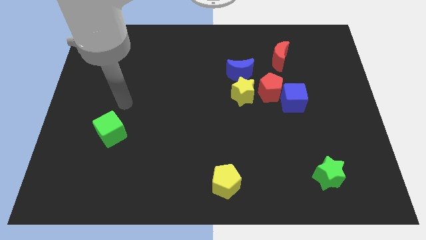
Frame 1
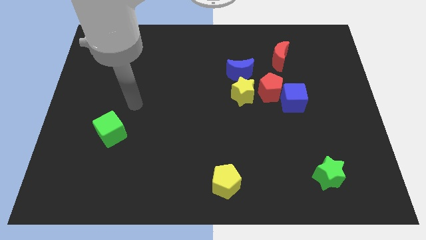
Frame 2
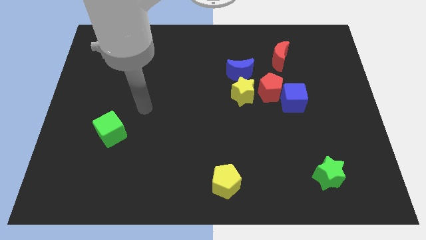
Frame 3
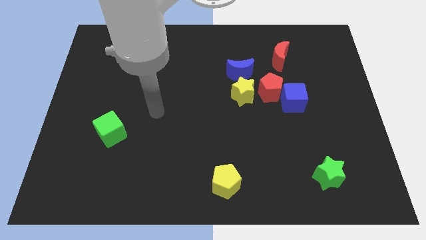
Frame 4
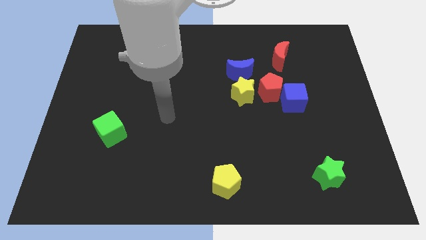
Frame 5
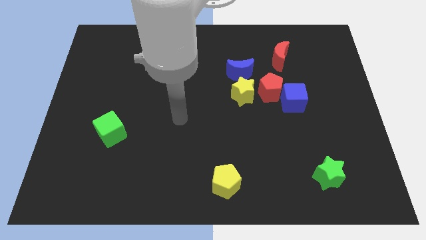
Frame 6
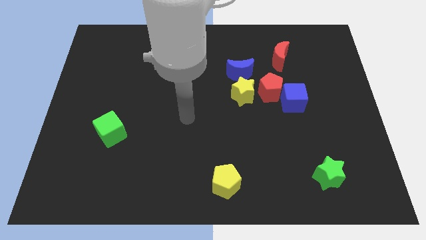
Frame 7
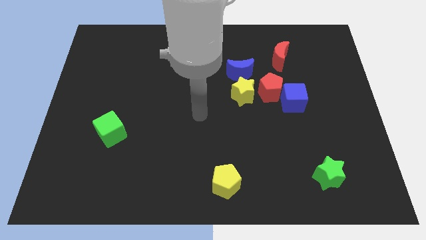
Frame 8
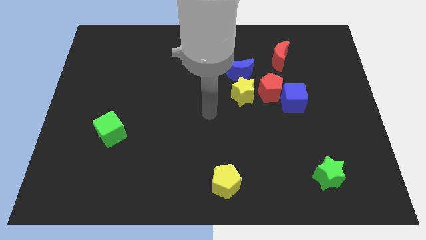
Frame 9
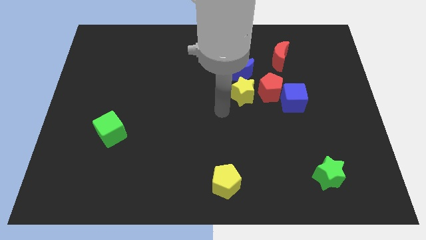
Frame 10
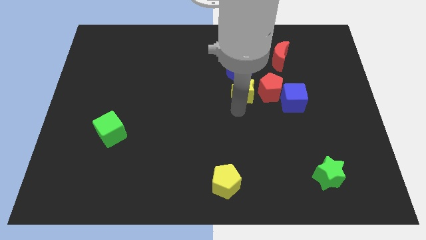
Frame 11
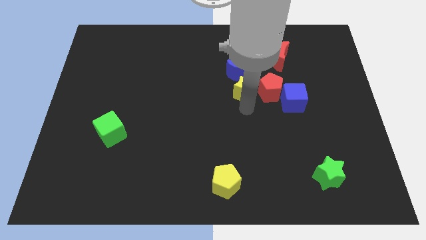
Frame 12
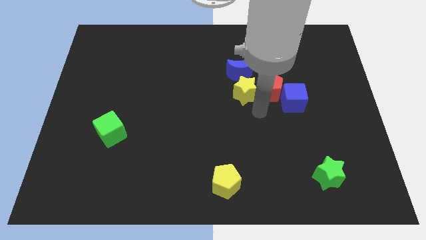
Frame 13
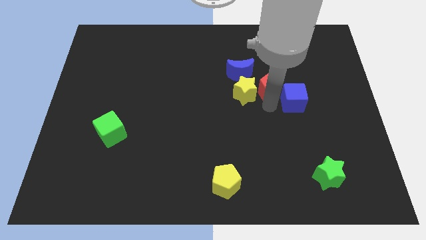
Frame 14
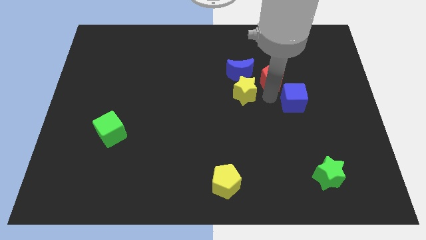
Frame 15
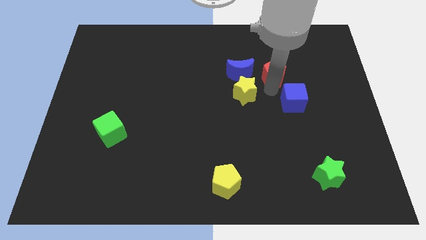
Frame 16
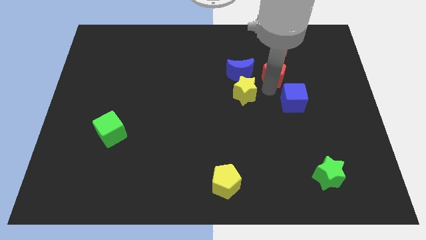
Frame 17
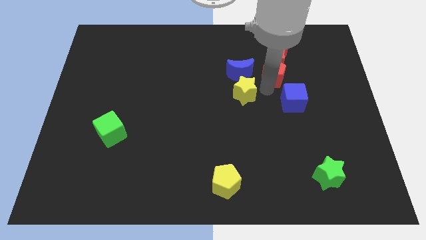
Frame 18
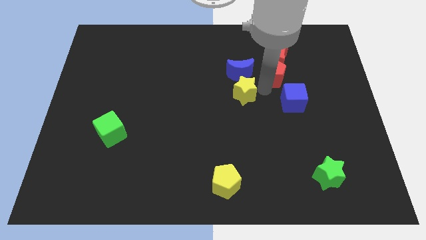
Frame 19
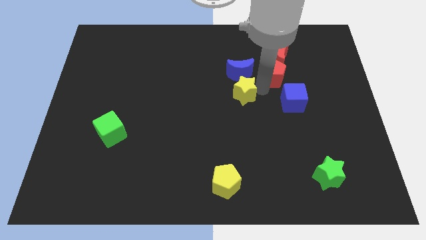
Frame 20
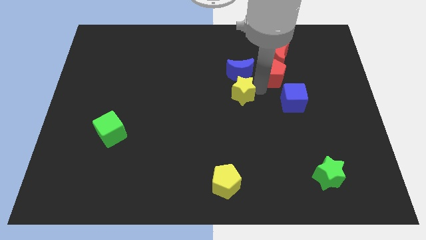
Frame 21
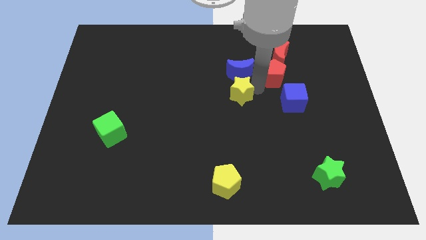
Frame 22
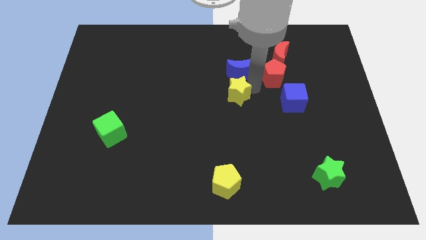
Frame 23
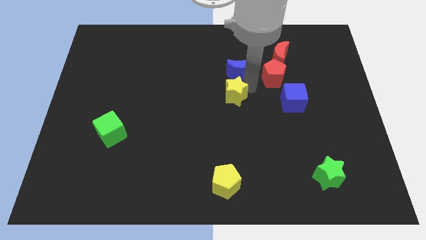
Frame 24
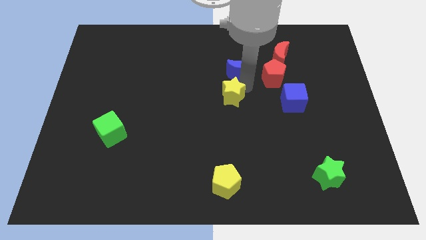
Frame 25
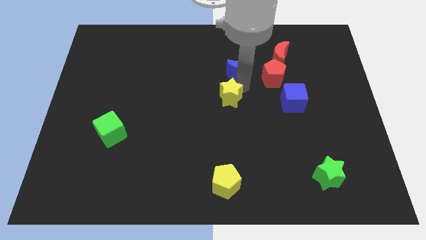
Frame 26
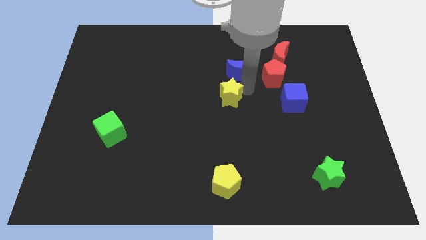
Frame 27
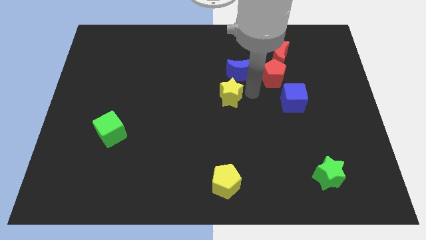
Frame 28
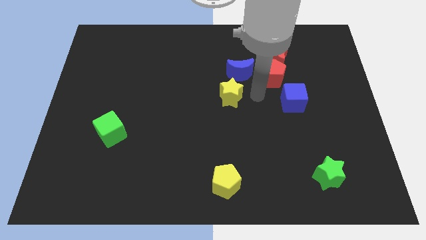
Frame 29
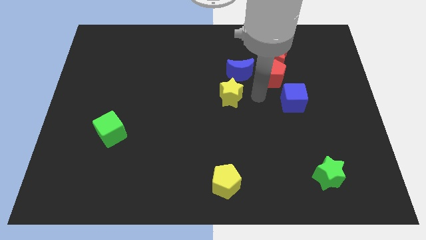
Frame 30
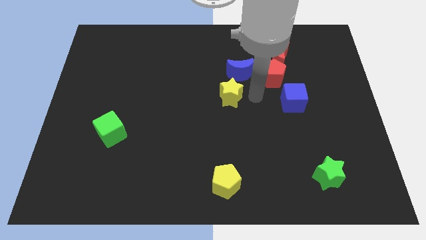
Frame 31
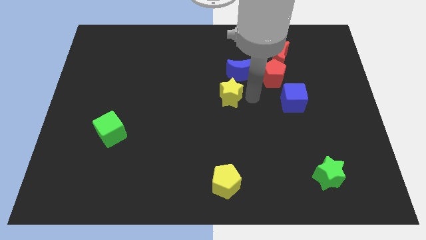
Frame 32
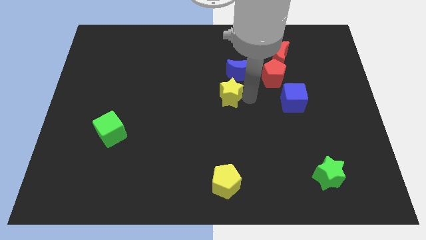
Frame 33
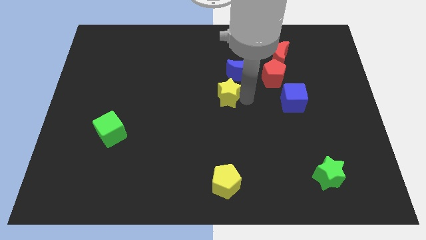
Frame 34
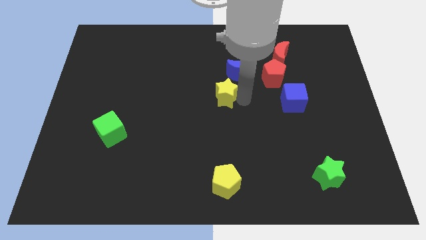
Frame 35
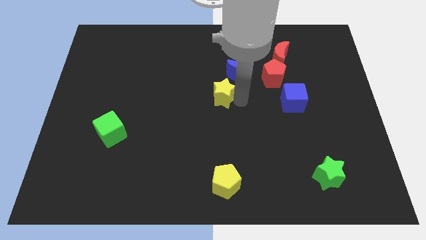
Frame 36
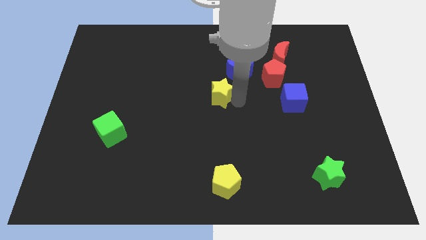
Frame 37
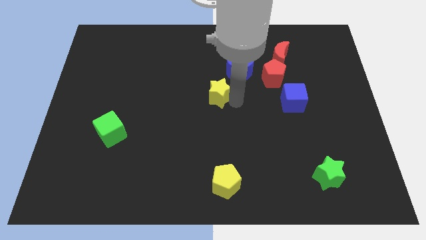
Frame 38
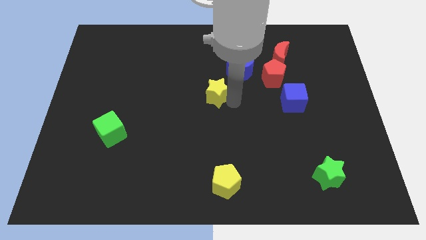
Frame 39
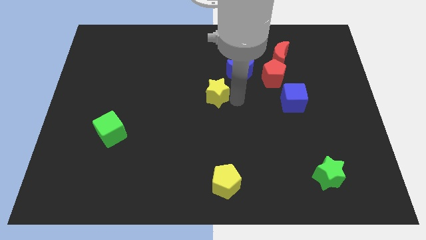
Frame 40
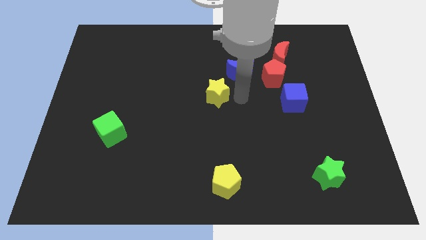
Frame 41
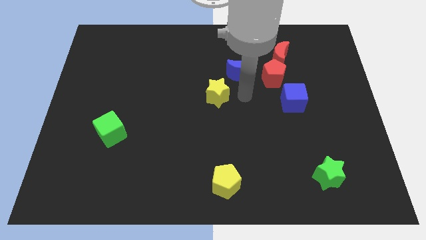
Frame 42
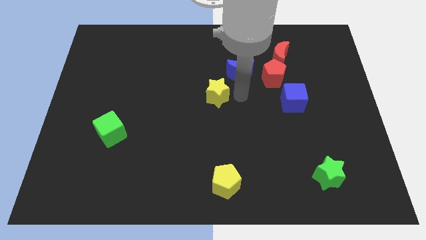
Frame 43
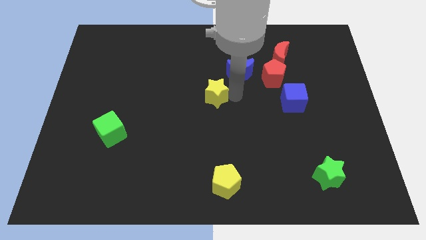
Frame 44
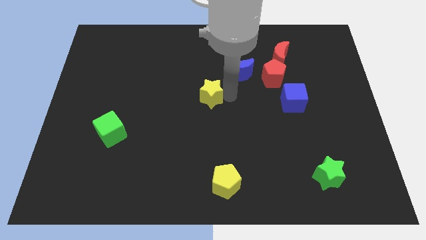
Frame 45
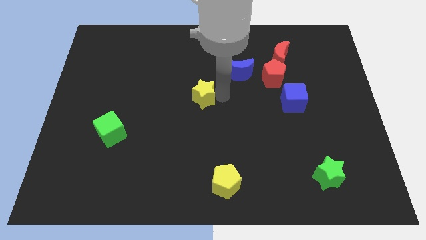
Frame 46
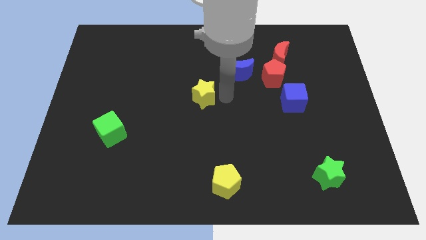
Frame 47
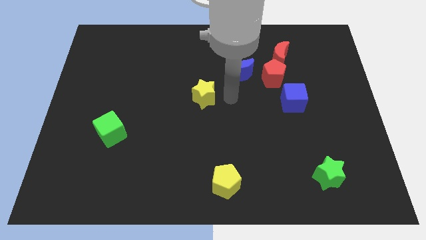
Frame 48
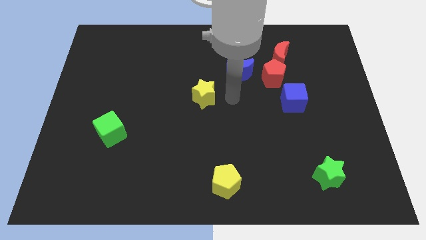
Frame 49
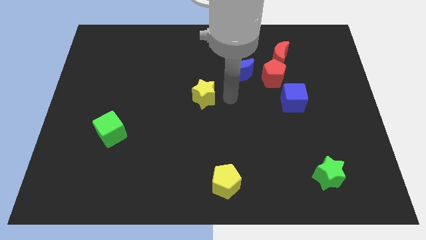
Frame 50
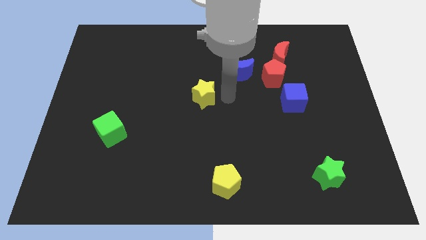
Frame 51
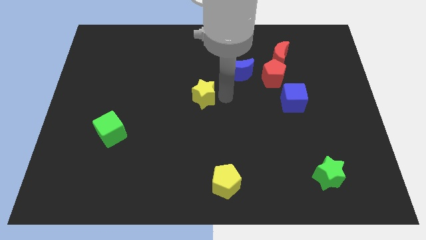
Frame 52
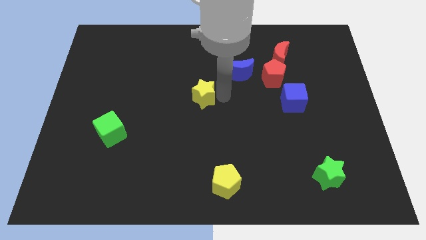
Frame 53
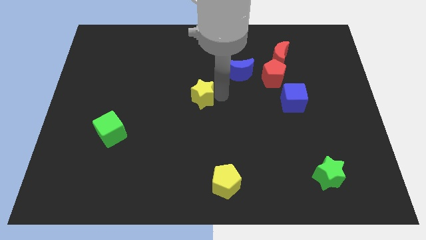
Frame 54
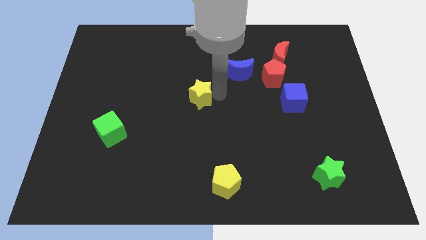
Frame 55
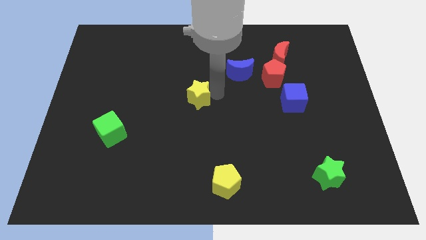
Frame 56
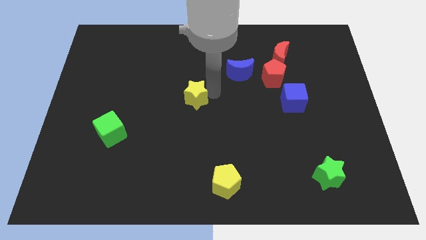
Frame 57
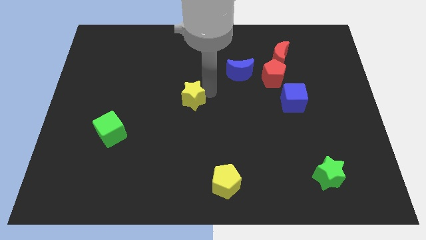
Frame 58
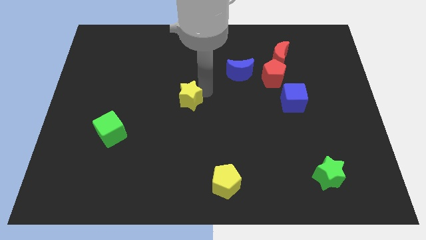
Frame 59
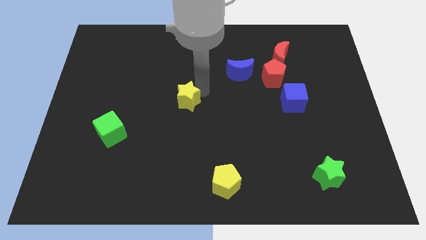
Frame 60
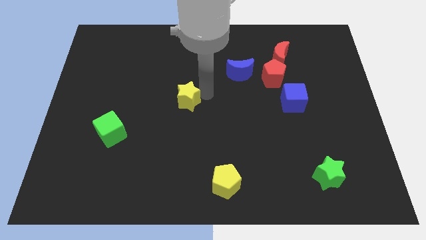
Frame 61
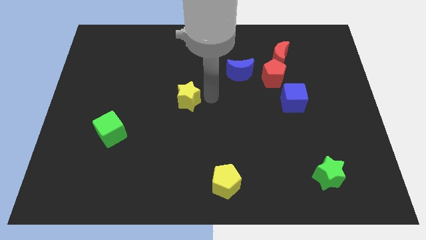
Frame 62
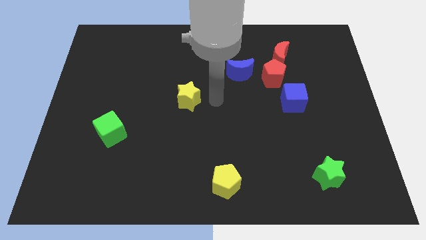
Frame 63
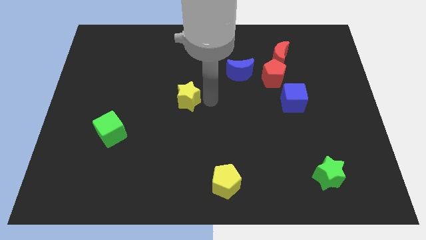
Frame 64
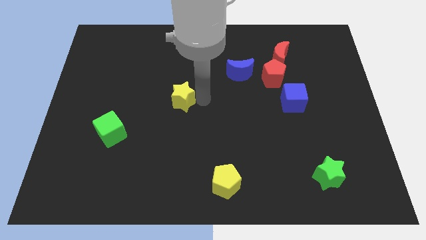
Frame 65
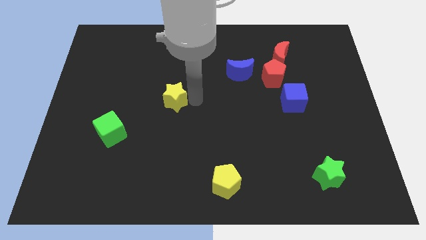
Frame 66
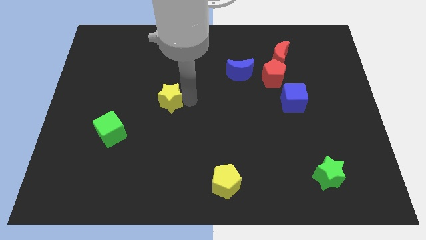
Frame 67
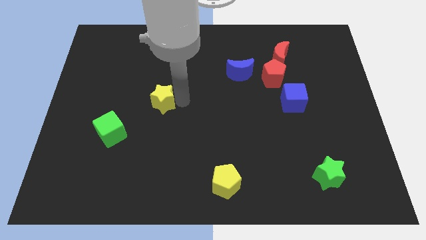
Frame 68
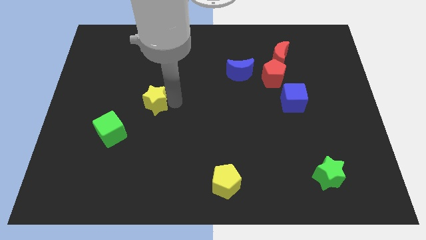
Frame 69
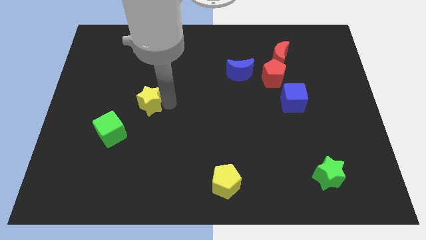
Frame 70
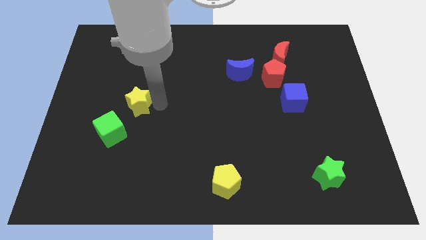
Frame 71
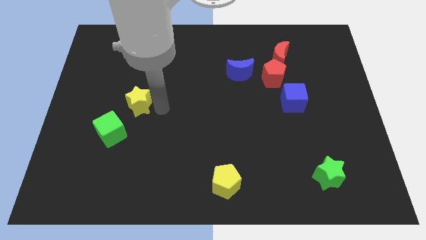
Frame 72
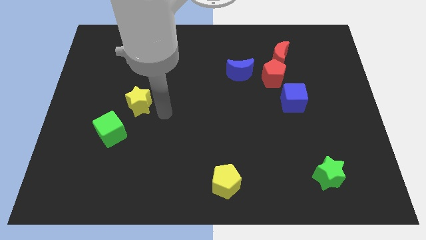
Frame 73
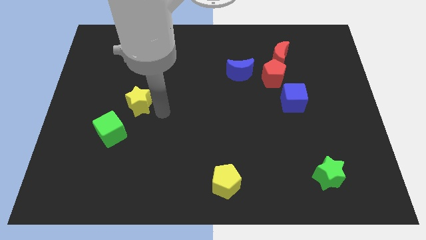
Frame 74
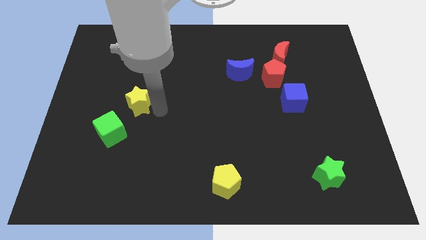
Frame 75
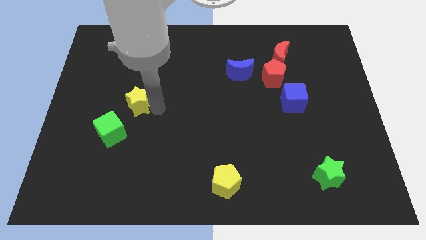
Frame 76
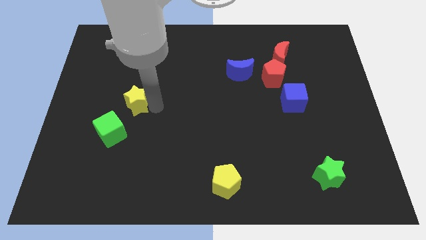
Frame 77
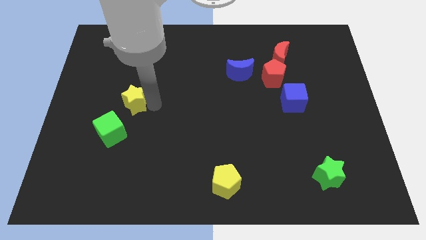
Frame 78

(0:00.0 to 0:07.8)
slide the yellow star to the top side of the green cube
